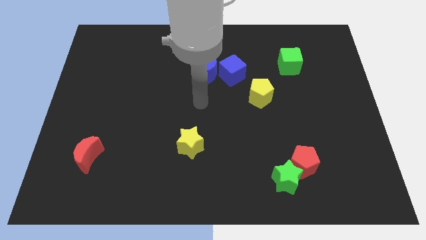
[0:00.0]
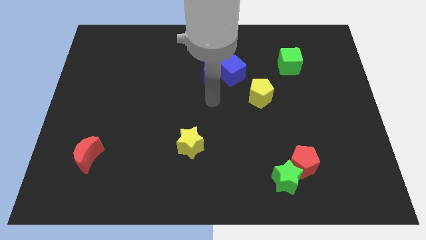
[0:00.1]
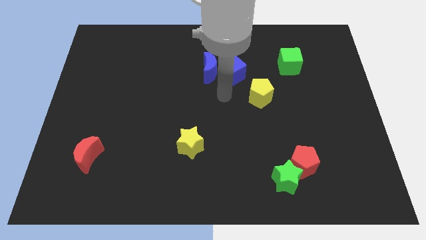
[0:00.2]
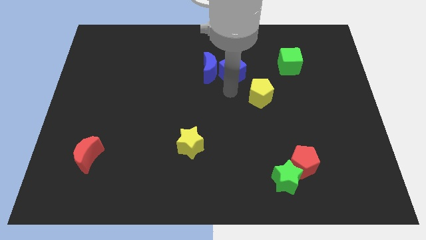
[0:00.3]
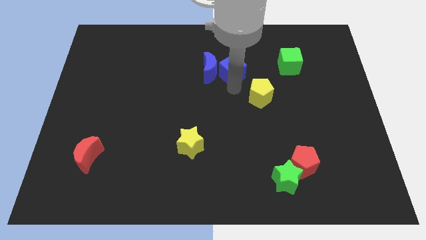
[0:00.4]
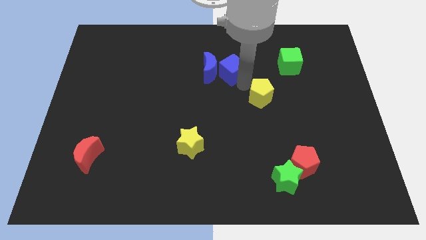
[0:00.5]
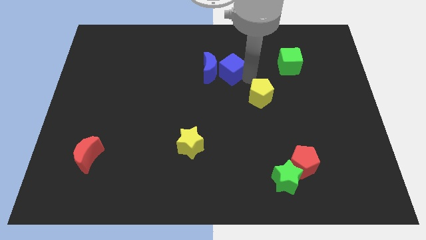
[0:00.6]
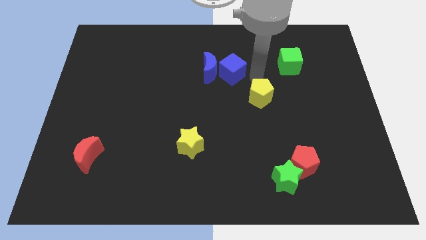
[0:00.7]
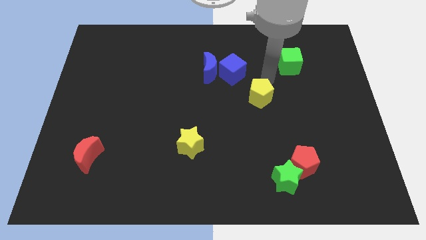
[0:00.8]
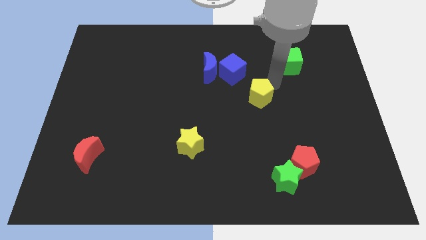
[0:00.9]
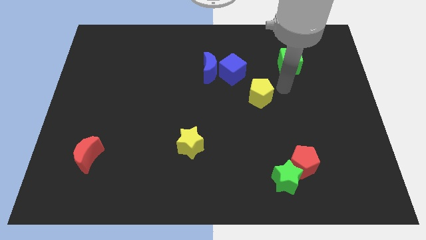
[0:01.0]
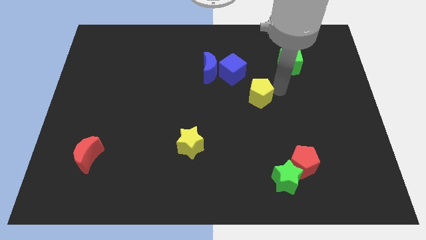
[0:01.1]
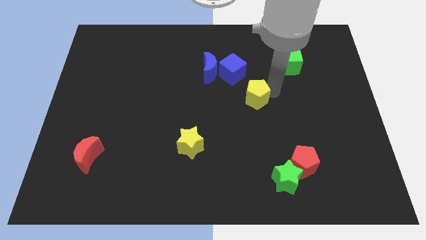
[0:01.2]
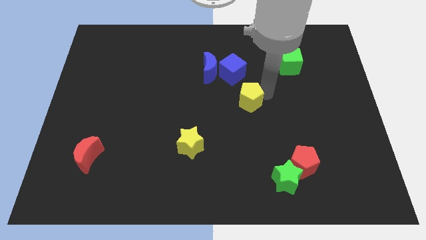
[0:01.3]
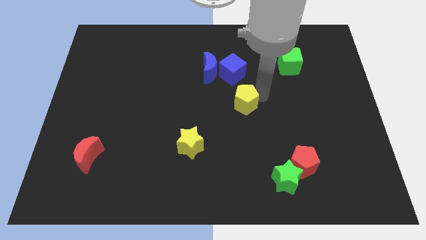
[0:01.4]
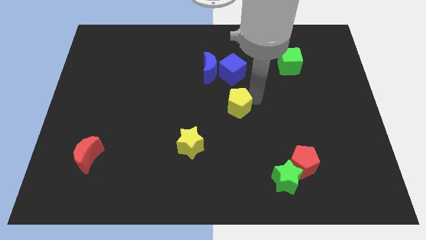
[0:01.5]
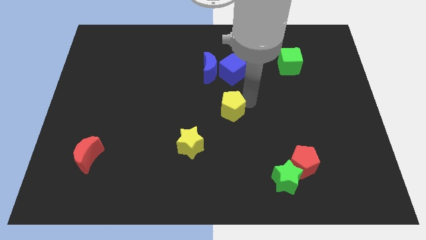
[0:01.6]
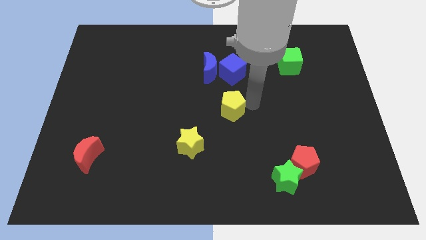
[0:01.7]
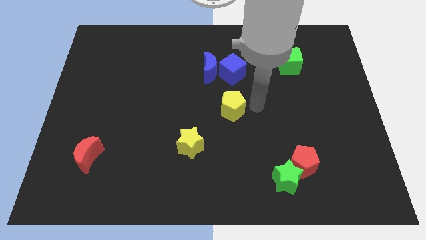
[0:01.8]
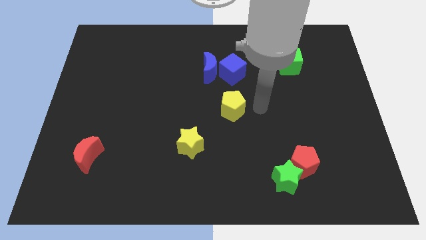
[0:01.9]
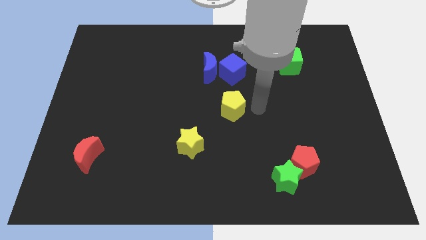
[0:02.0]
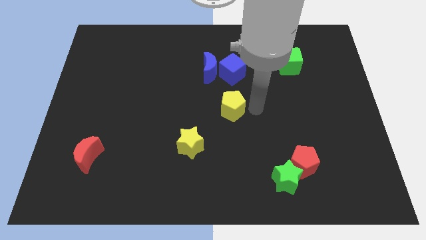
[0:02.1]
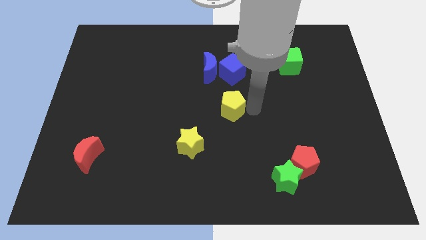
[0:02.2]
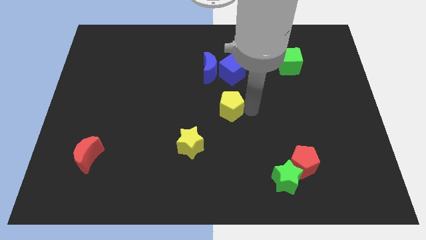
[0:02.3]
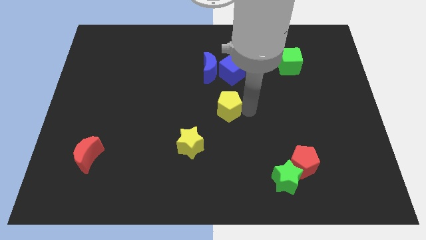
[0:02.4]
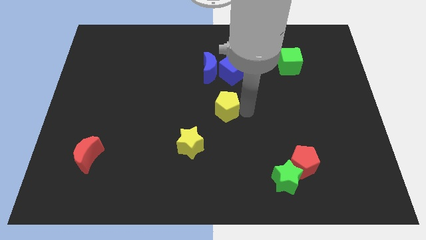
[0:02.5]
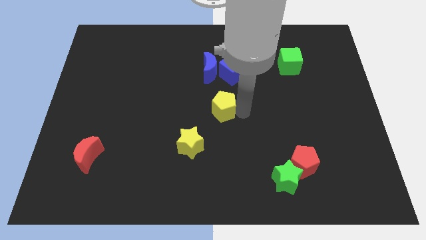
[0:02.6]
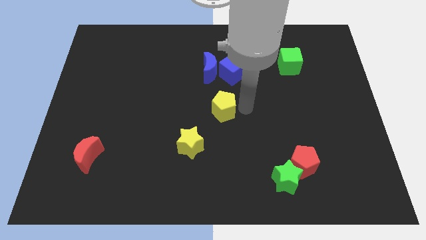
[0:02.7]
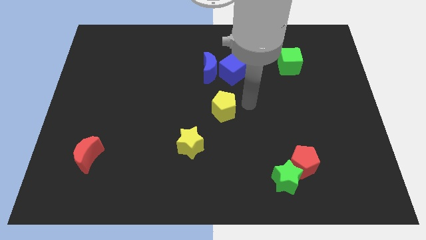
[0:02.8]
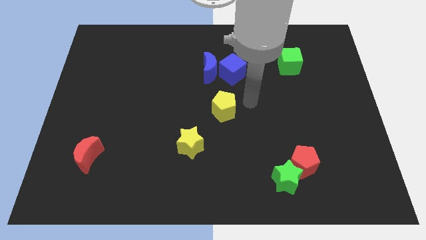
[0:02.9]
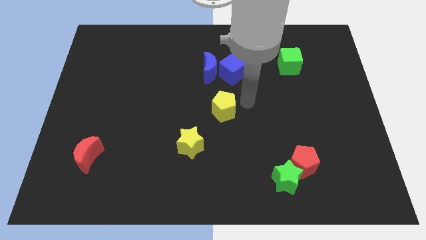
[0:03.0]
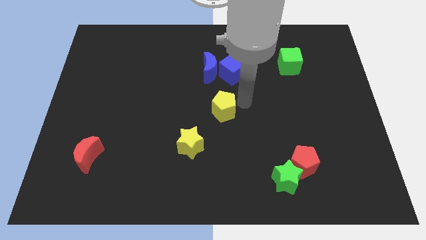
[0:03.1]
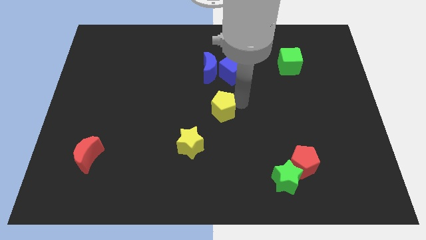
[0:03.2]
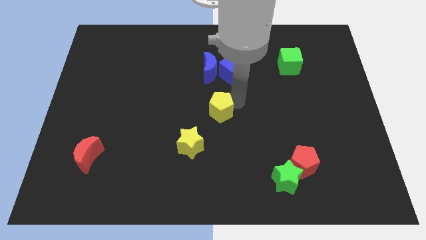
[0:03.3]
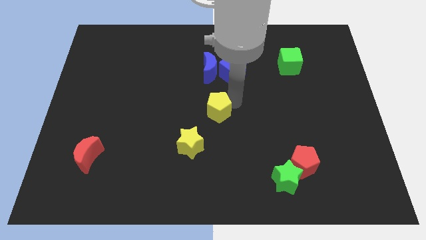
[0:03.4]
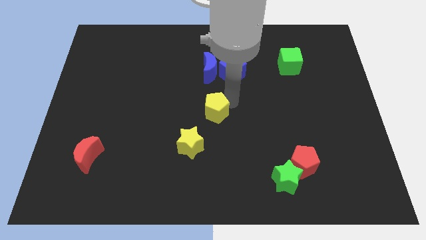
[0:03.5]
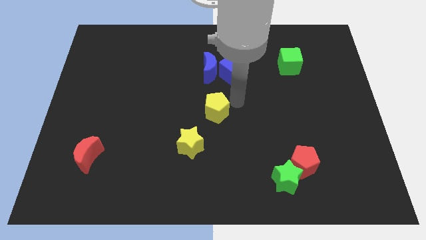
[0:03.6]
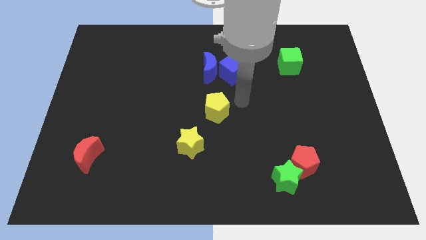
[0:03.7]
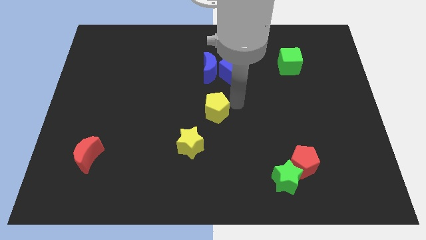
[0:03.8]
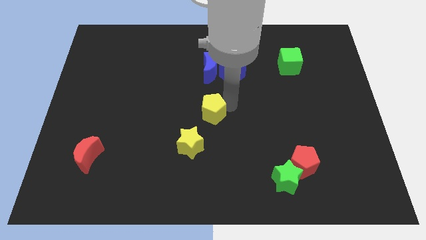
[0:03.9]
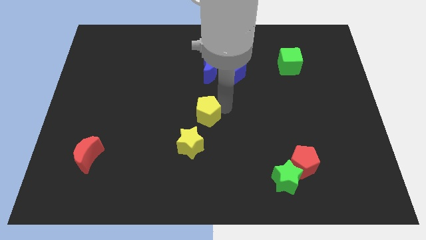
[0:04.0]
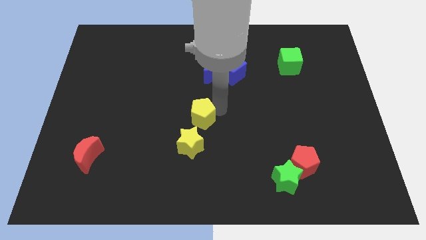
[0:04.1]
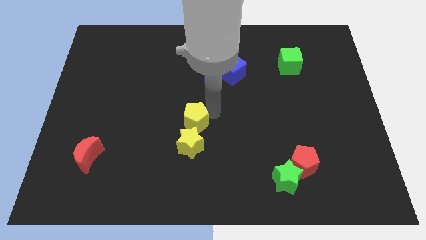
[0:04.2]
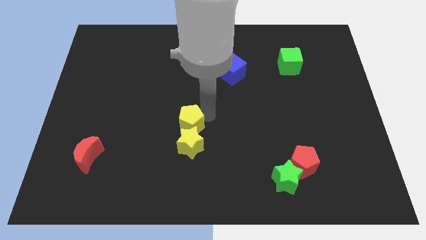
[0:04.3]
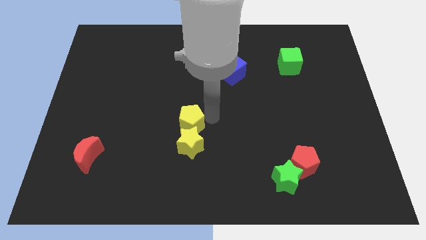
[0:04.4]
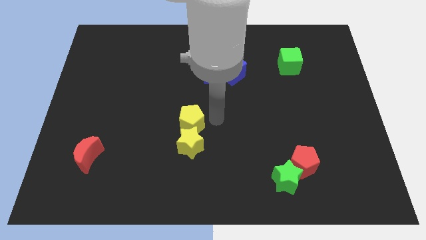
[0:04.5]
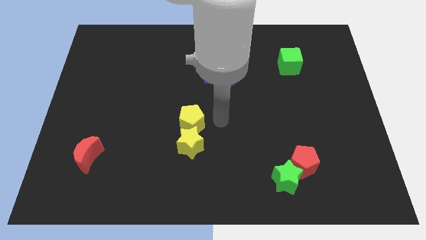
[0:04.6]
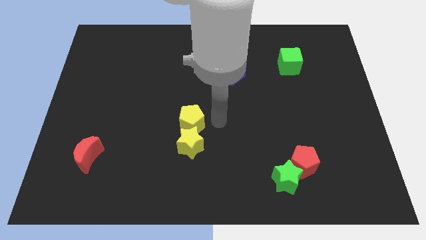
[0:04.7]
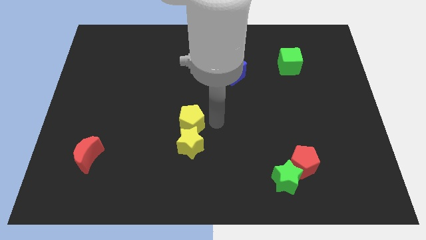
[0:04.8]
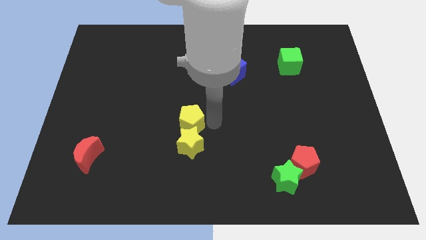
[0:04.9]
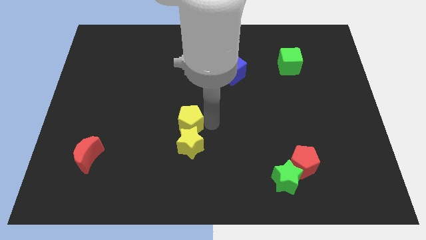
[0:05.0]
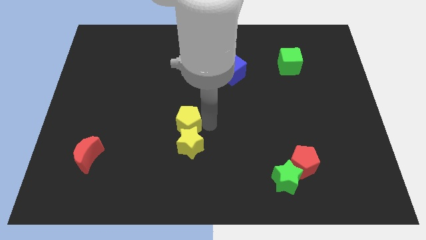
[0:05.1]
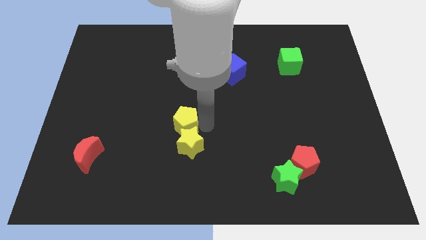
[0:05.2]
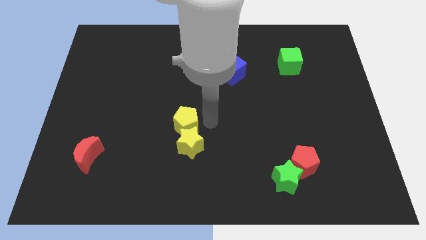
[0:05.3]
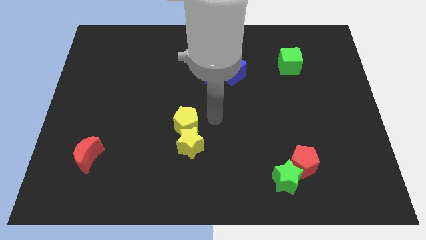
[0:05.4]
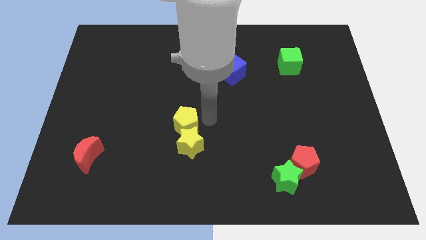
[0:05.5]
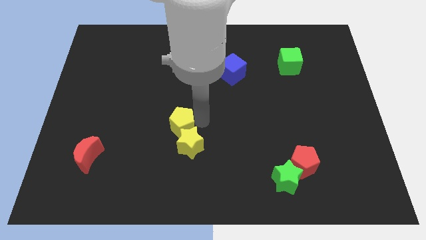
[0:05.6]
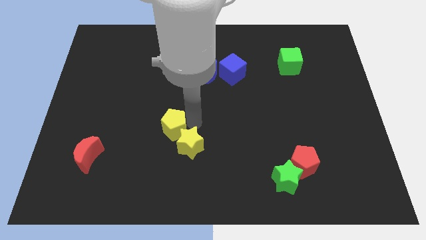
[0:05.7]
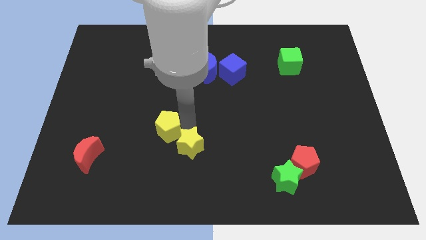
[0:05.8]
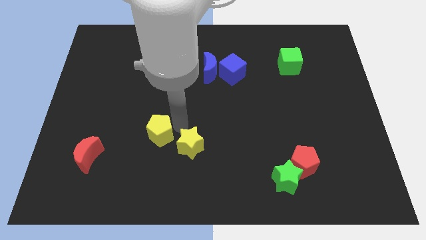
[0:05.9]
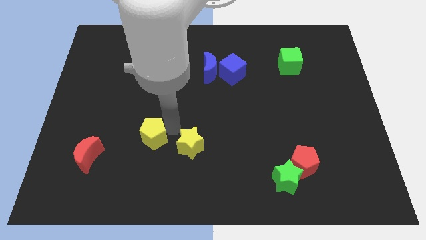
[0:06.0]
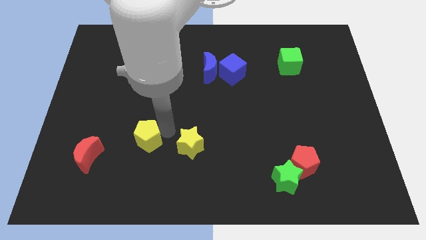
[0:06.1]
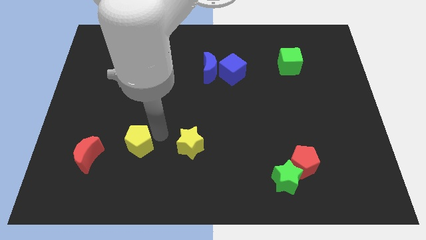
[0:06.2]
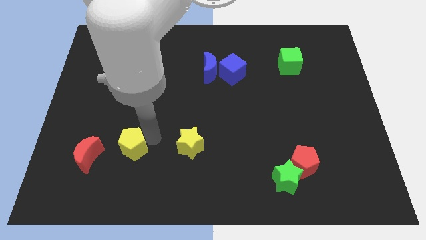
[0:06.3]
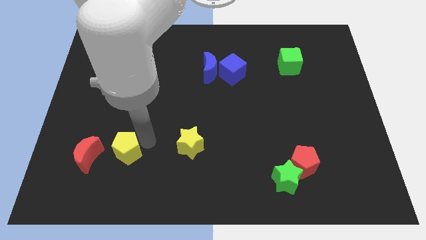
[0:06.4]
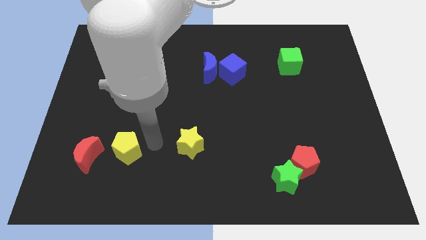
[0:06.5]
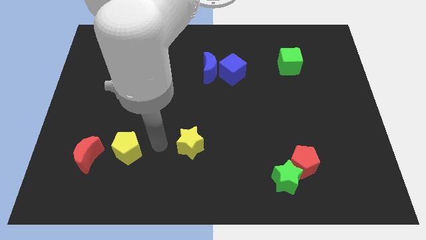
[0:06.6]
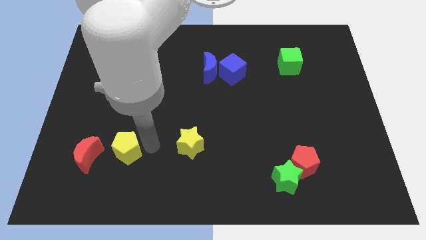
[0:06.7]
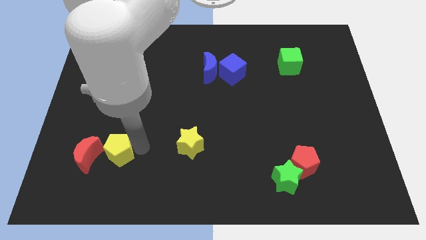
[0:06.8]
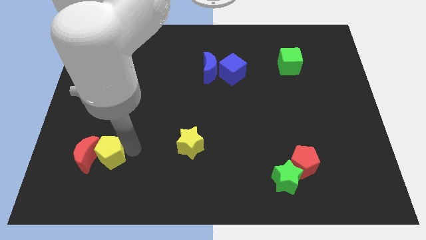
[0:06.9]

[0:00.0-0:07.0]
push the yellow pentagon to the red moon

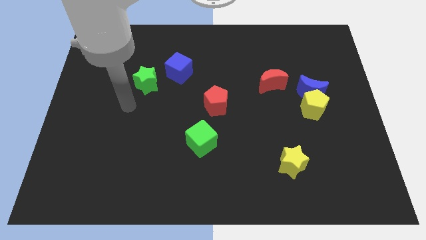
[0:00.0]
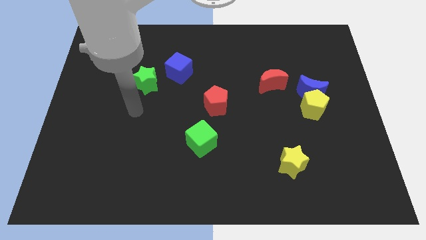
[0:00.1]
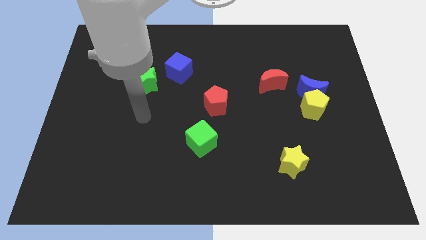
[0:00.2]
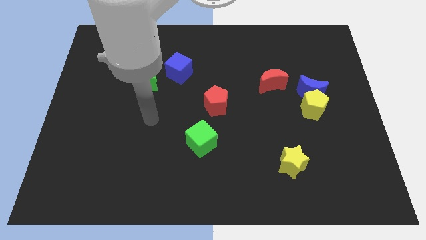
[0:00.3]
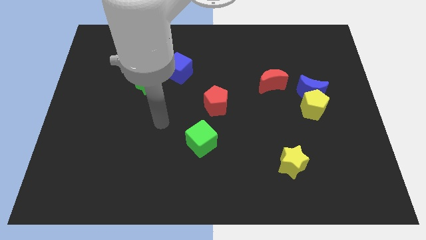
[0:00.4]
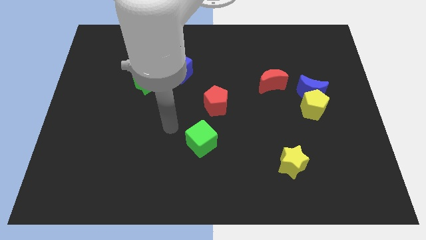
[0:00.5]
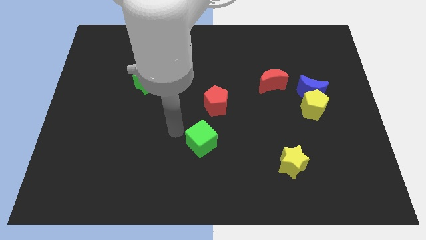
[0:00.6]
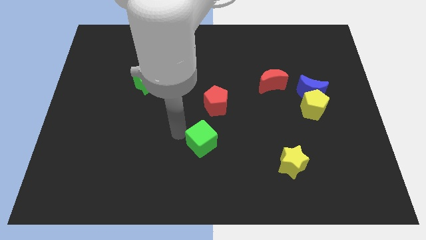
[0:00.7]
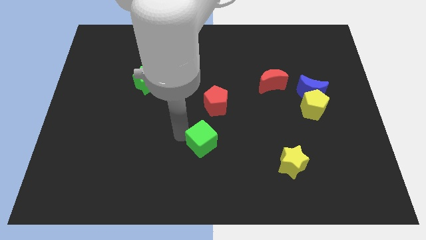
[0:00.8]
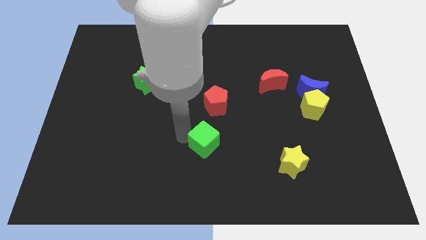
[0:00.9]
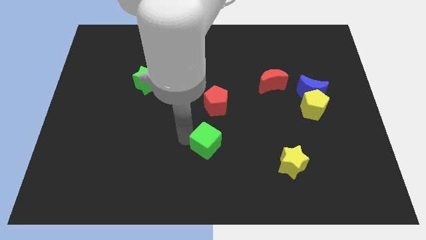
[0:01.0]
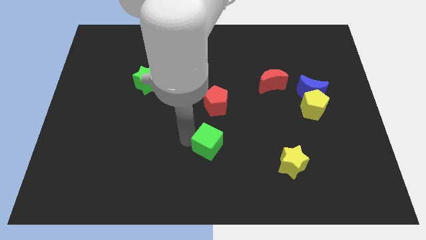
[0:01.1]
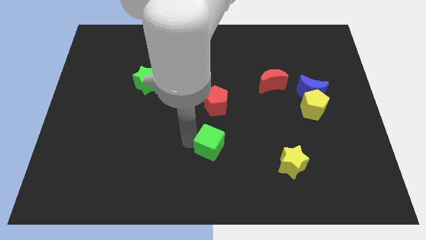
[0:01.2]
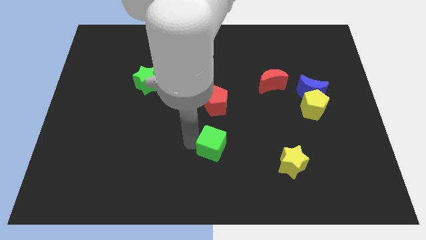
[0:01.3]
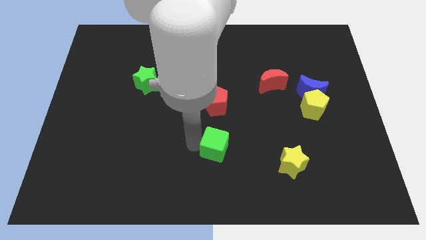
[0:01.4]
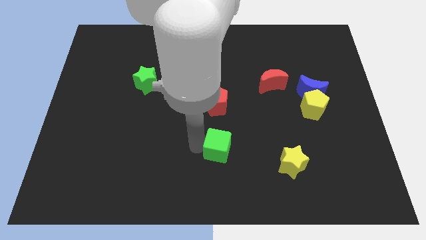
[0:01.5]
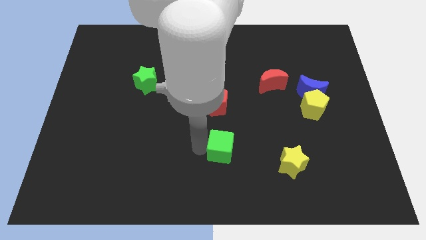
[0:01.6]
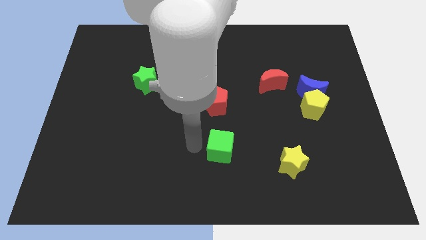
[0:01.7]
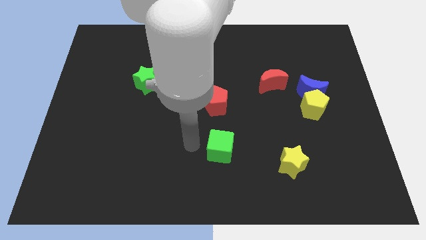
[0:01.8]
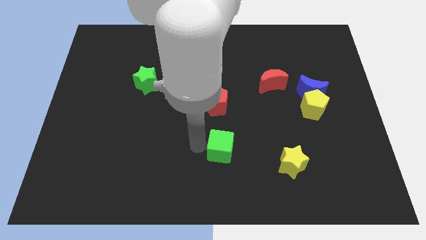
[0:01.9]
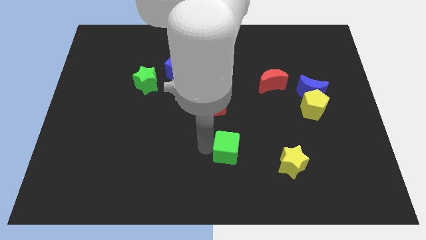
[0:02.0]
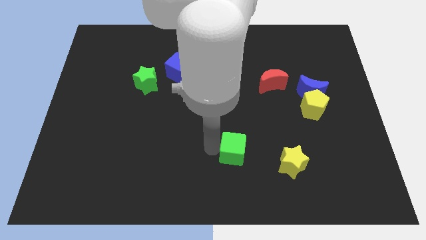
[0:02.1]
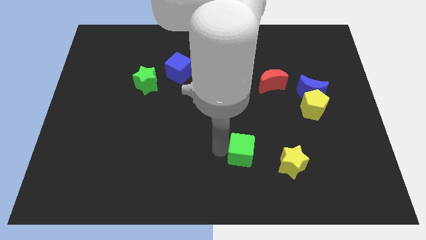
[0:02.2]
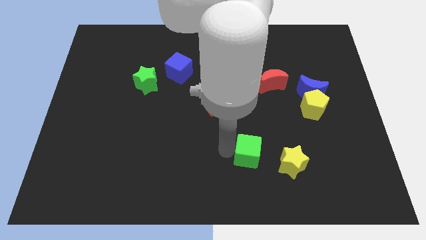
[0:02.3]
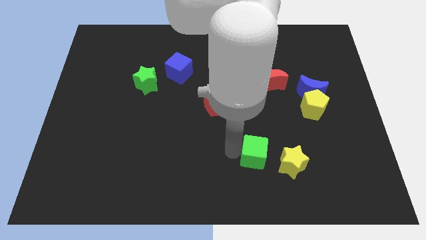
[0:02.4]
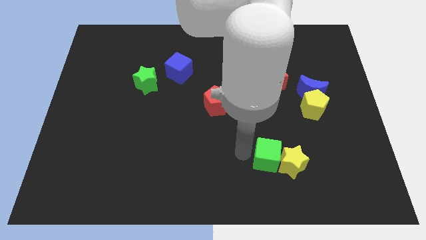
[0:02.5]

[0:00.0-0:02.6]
slide the green cube close to the yellow star
